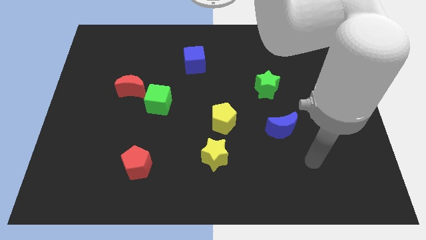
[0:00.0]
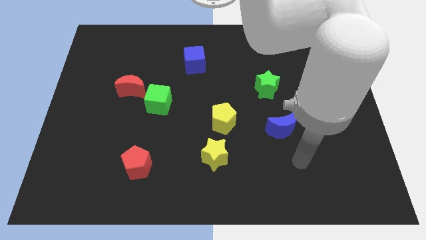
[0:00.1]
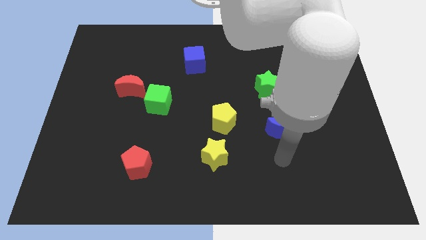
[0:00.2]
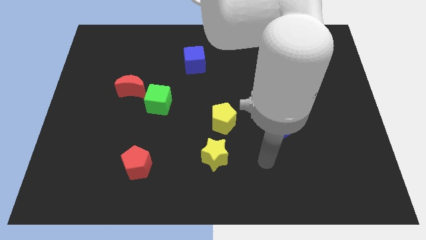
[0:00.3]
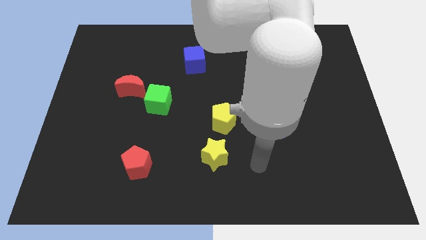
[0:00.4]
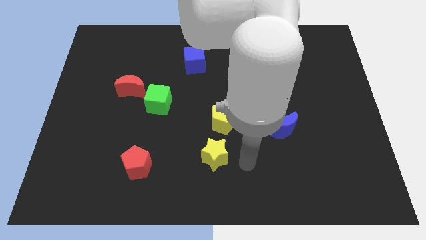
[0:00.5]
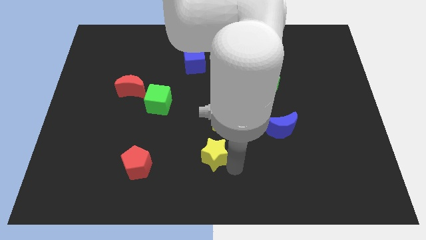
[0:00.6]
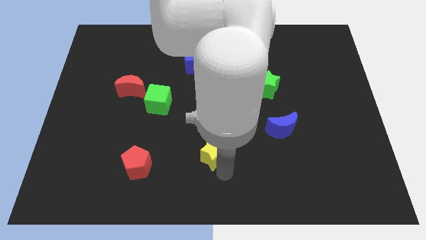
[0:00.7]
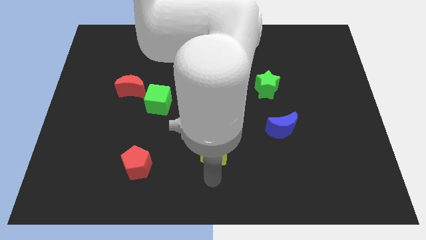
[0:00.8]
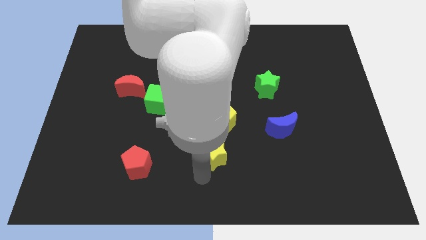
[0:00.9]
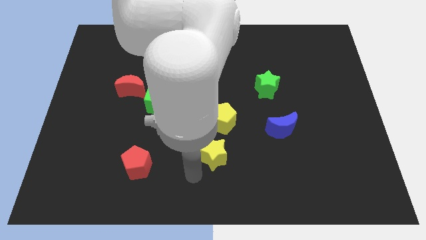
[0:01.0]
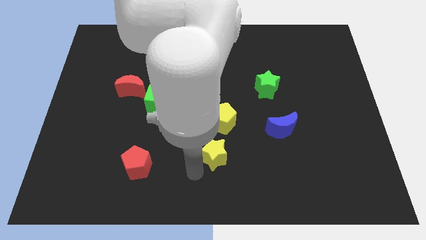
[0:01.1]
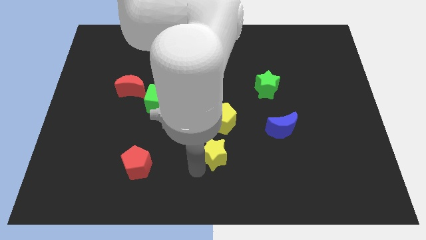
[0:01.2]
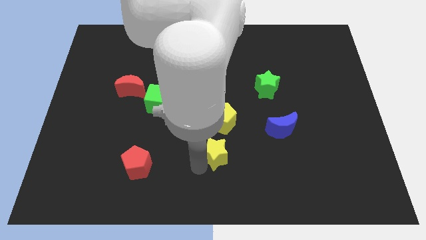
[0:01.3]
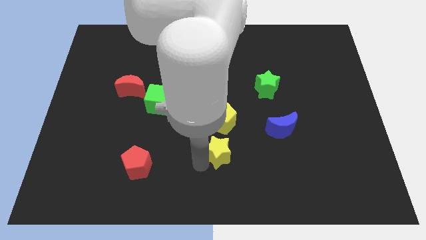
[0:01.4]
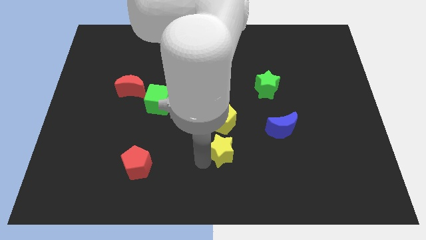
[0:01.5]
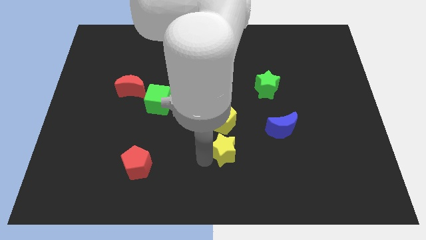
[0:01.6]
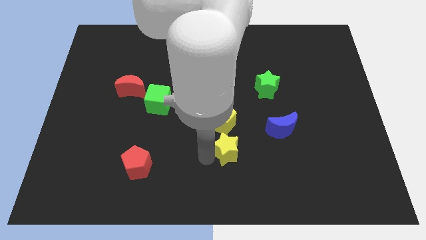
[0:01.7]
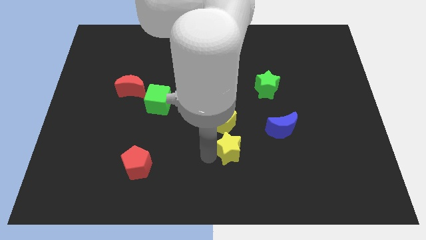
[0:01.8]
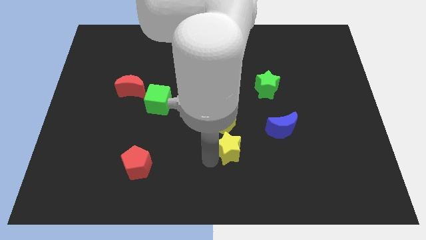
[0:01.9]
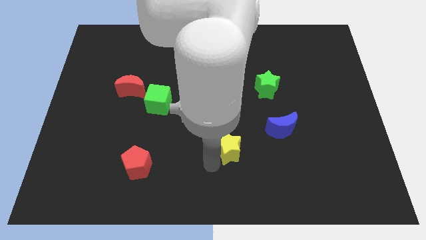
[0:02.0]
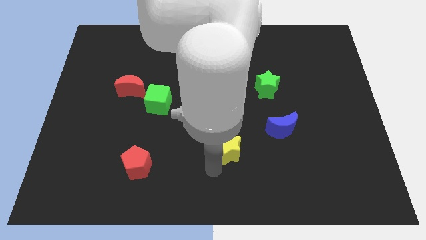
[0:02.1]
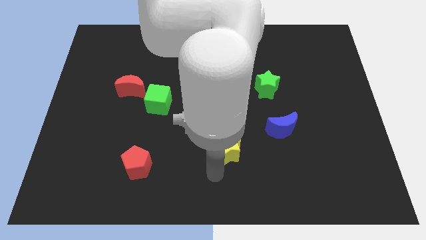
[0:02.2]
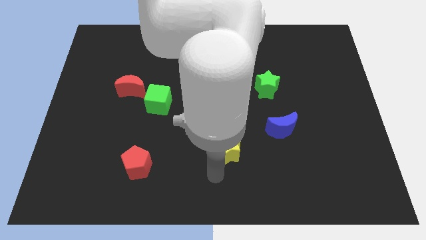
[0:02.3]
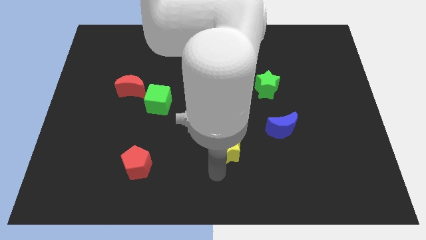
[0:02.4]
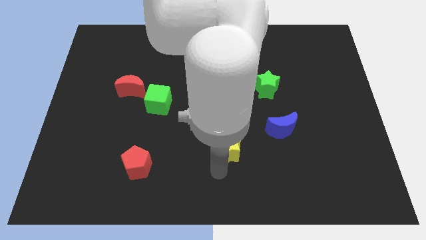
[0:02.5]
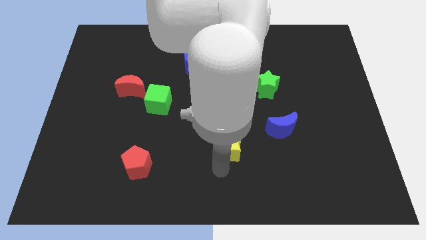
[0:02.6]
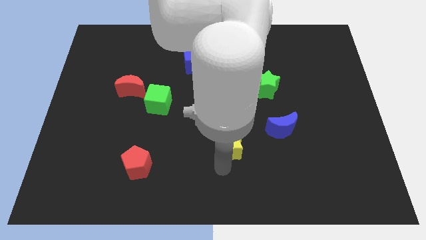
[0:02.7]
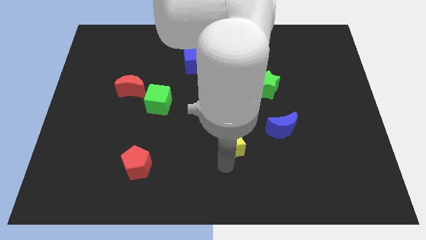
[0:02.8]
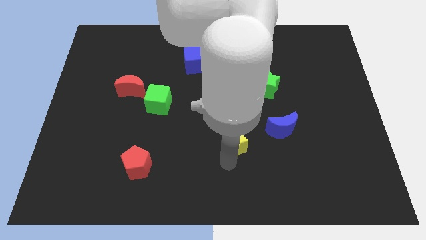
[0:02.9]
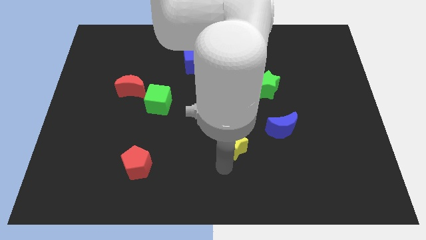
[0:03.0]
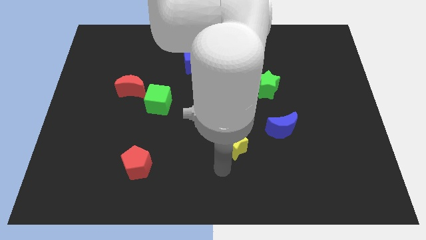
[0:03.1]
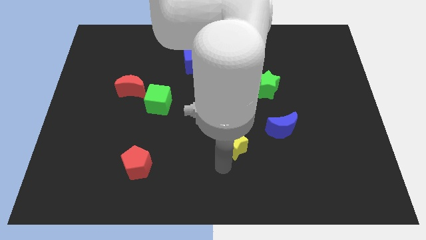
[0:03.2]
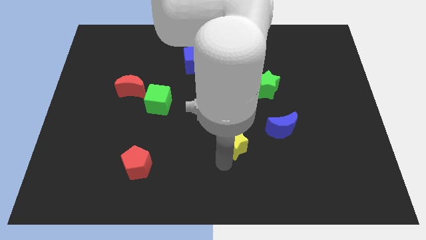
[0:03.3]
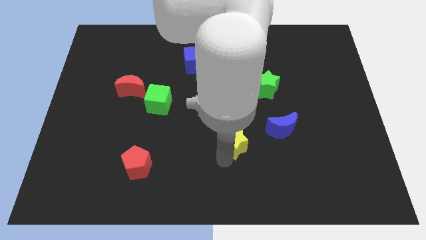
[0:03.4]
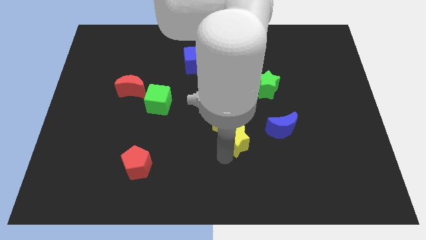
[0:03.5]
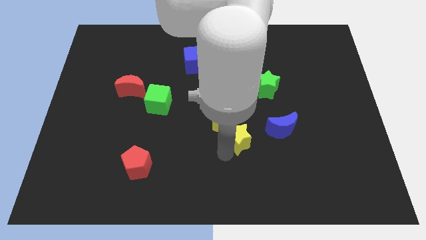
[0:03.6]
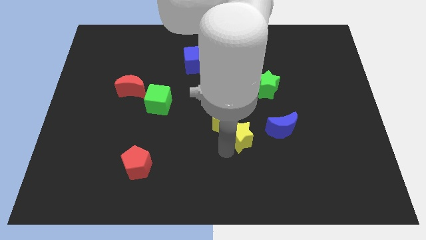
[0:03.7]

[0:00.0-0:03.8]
slide the yellow star diagonally upwards and to the right somewhat

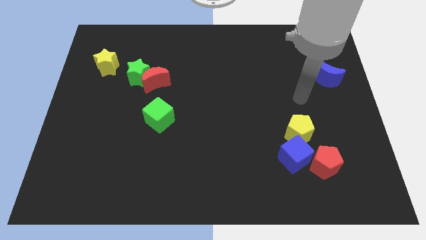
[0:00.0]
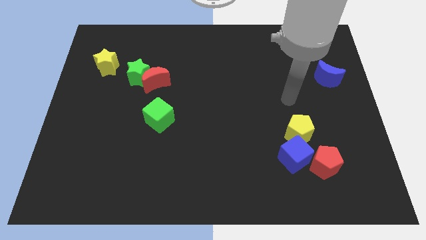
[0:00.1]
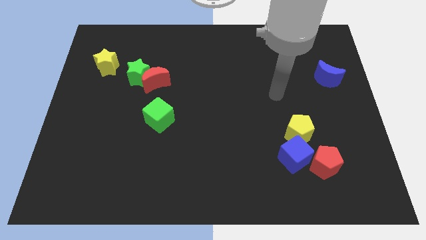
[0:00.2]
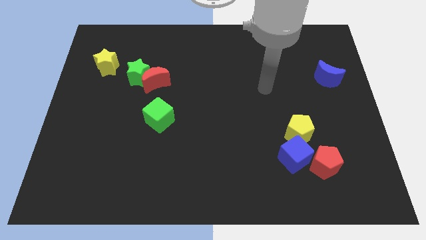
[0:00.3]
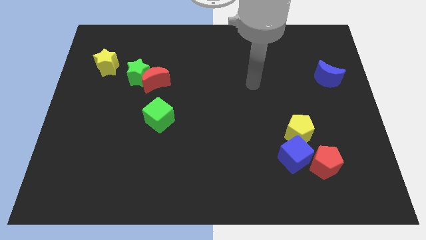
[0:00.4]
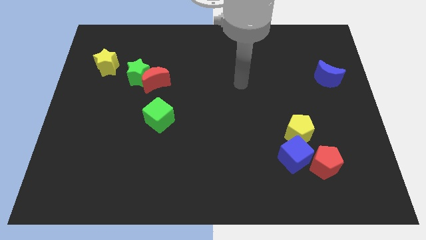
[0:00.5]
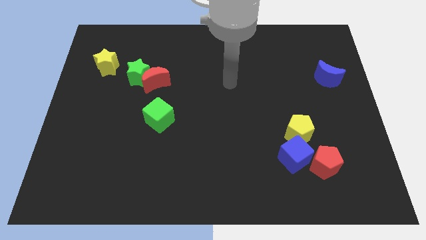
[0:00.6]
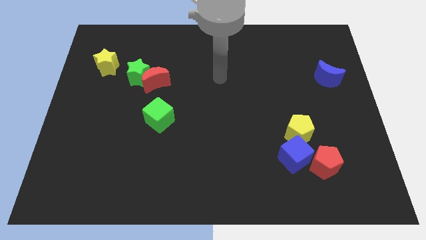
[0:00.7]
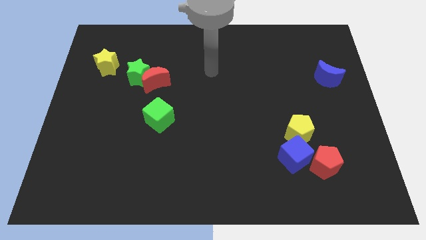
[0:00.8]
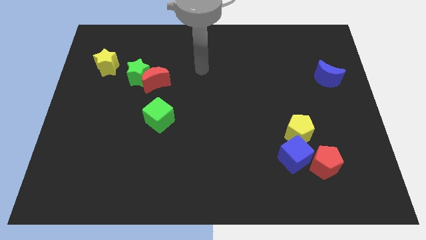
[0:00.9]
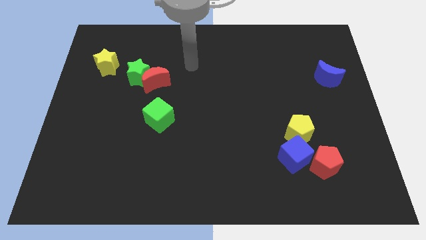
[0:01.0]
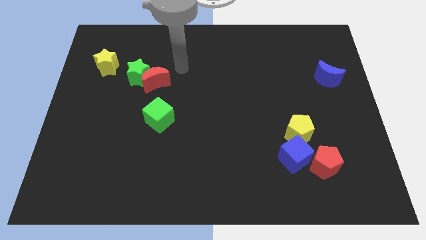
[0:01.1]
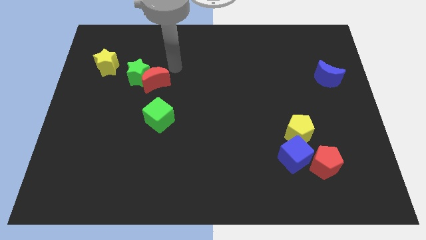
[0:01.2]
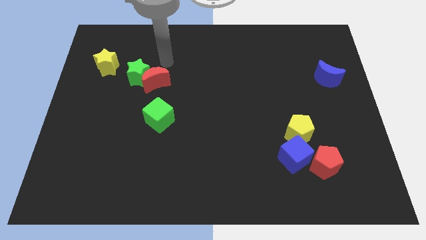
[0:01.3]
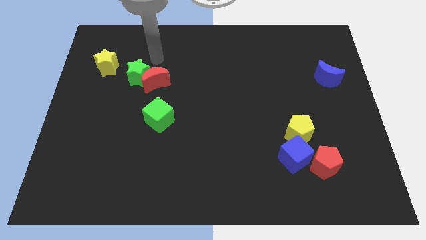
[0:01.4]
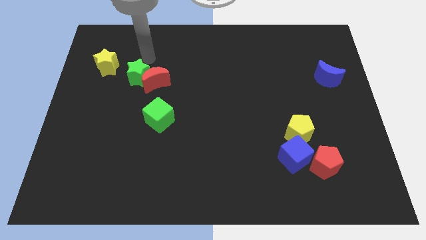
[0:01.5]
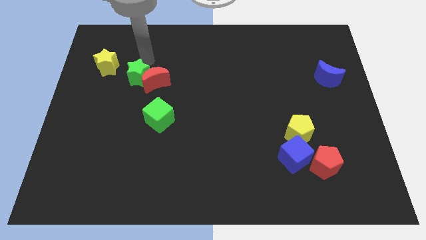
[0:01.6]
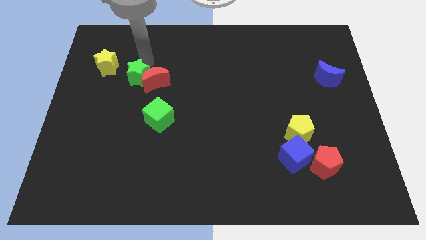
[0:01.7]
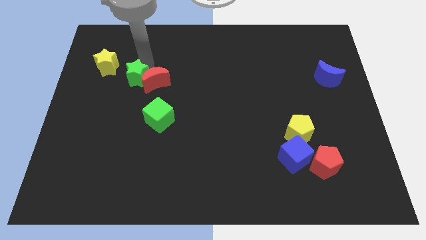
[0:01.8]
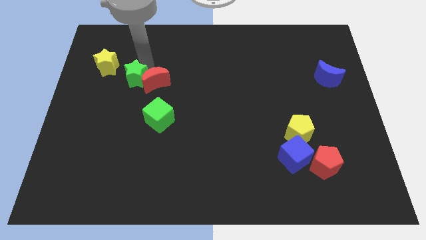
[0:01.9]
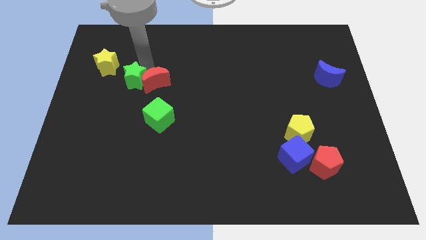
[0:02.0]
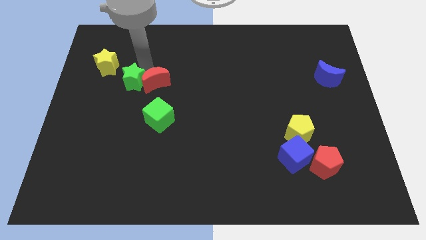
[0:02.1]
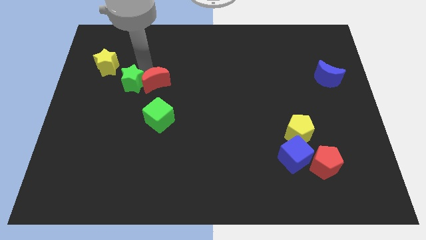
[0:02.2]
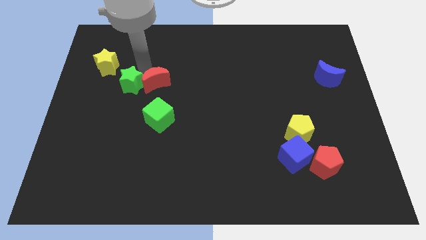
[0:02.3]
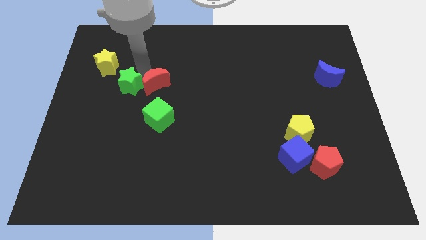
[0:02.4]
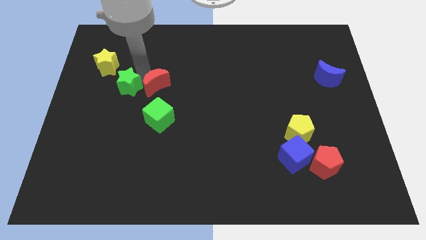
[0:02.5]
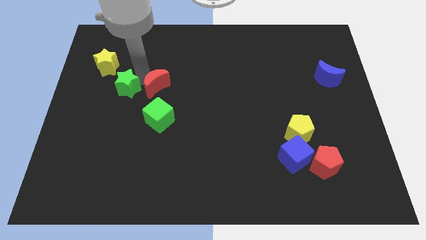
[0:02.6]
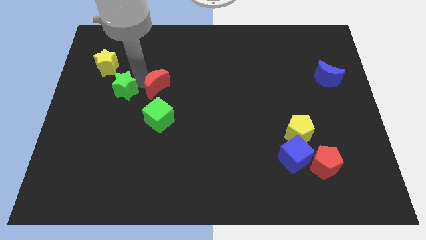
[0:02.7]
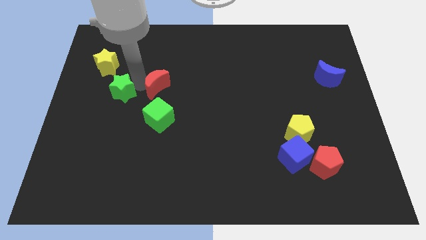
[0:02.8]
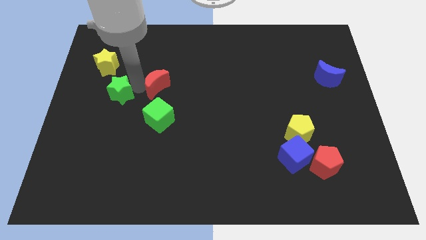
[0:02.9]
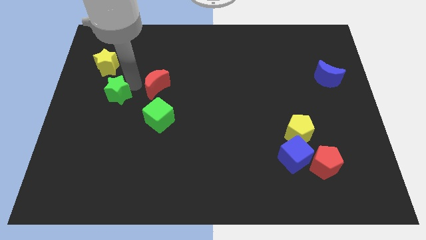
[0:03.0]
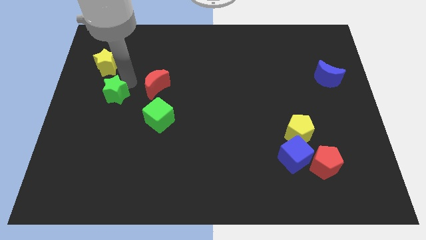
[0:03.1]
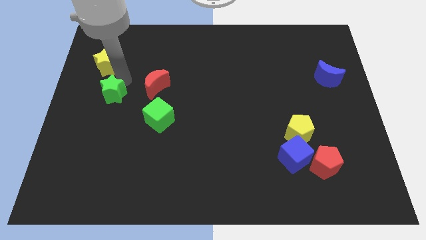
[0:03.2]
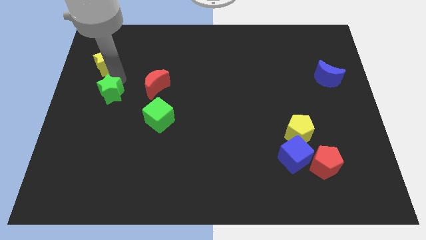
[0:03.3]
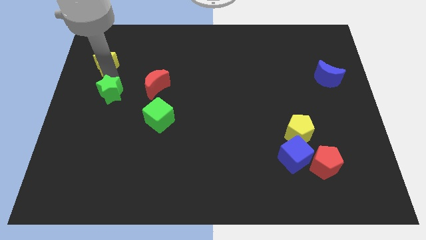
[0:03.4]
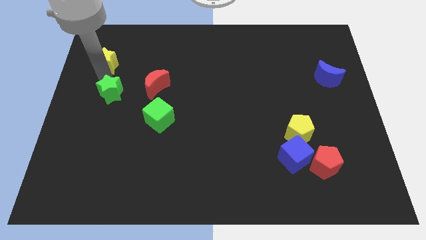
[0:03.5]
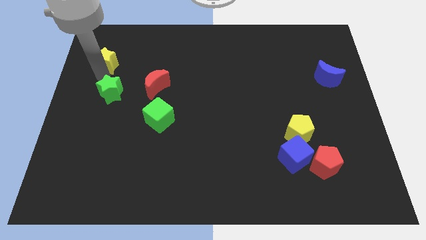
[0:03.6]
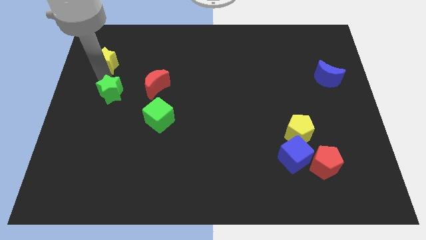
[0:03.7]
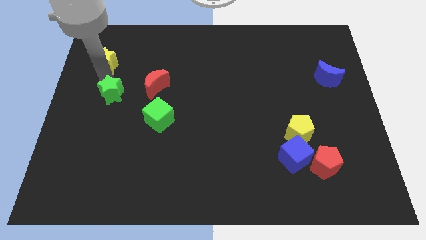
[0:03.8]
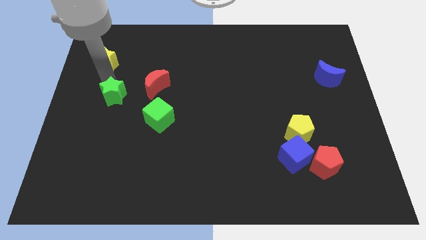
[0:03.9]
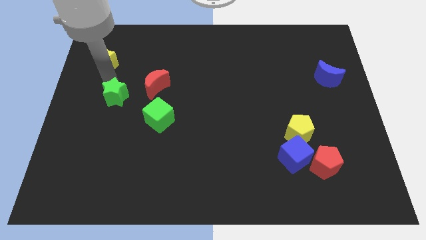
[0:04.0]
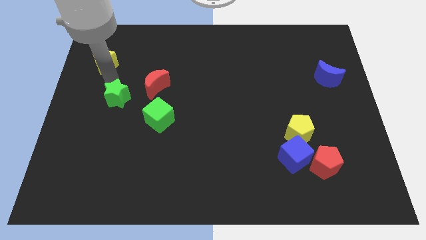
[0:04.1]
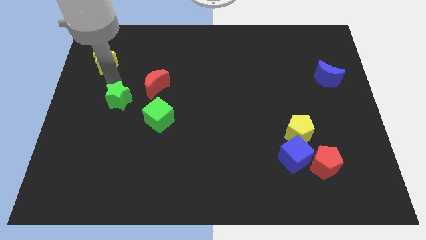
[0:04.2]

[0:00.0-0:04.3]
slide the green star downwards slightly
